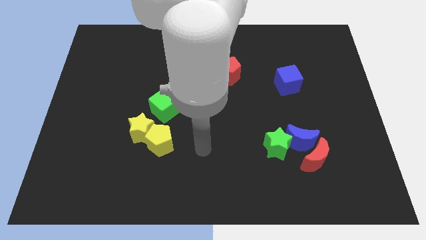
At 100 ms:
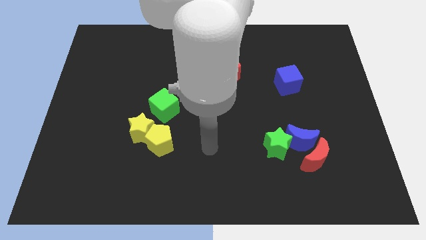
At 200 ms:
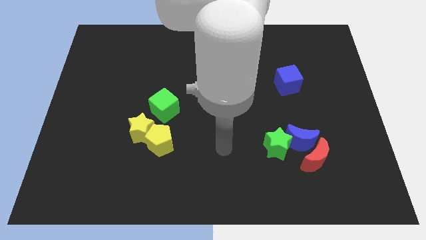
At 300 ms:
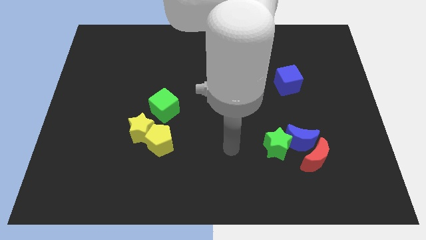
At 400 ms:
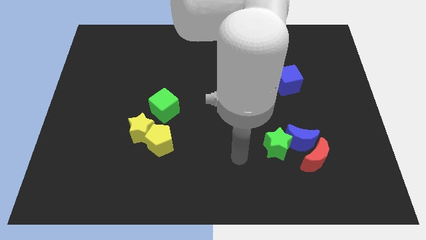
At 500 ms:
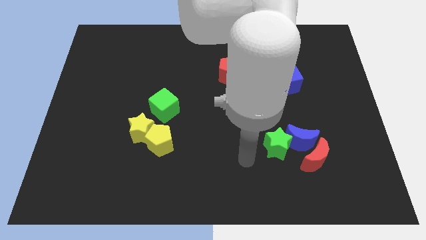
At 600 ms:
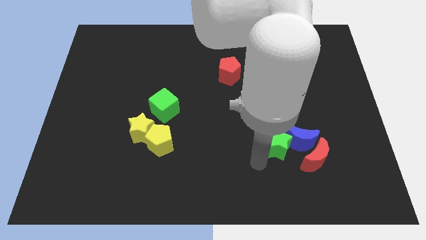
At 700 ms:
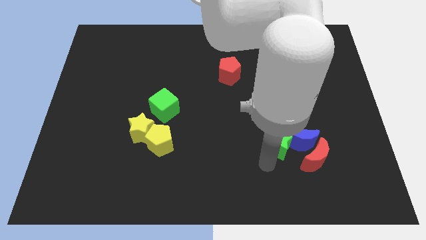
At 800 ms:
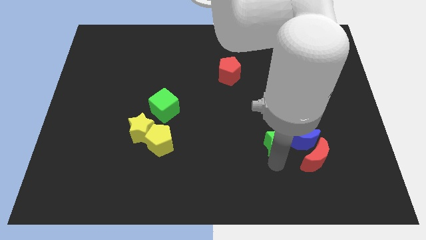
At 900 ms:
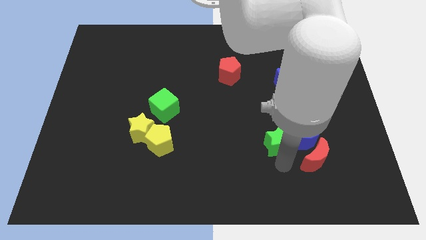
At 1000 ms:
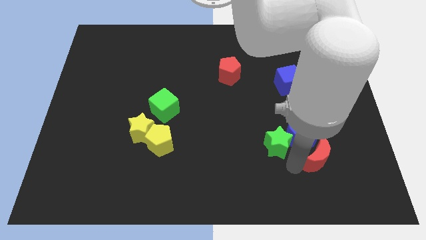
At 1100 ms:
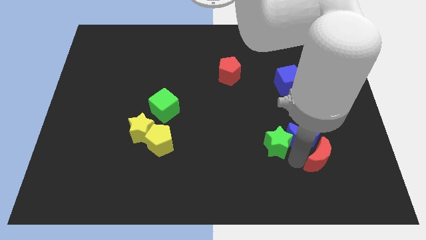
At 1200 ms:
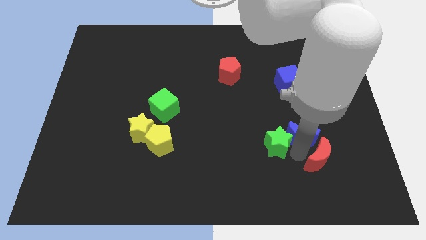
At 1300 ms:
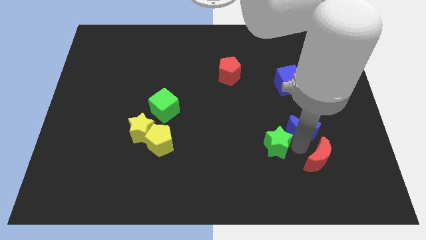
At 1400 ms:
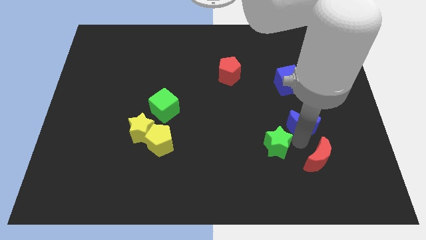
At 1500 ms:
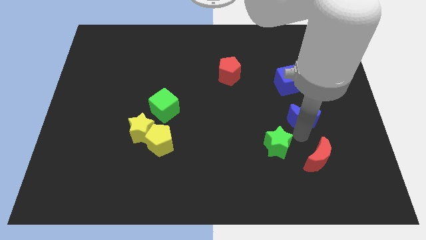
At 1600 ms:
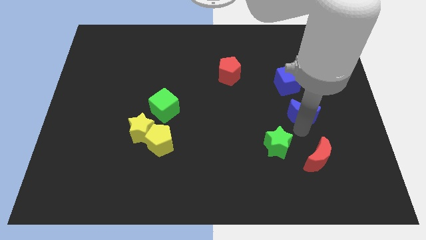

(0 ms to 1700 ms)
move the blue moon away from the red moon and green star

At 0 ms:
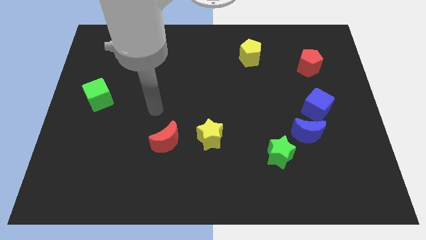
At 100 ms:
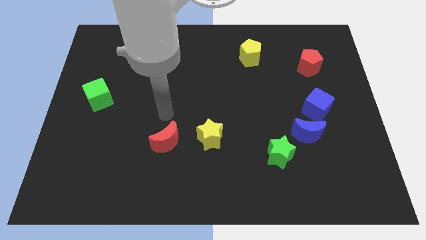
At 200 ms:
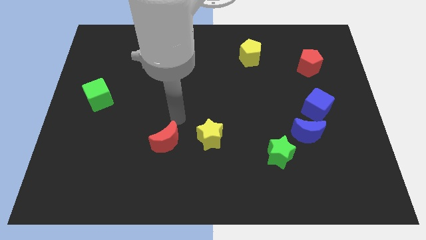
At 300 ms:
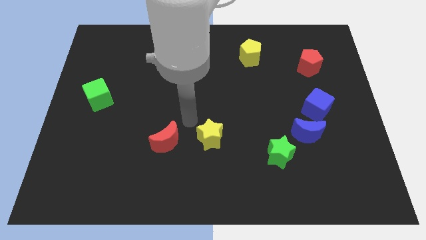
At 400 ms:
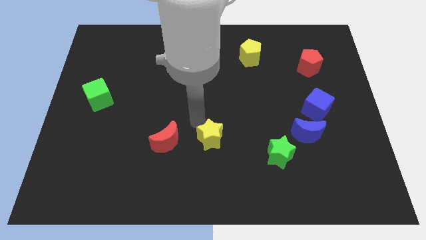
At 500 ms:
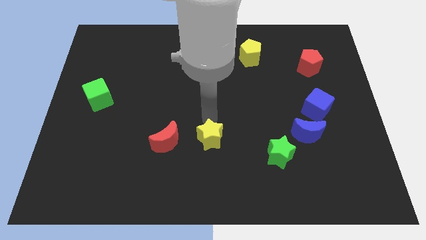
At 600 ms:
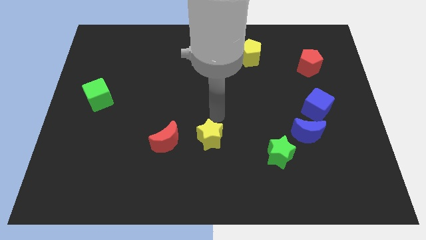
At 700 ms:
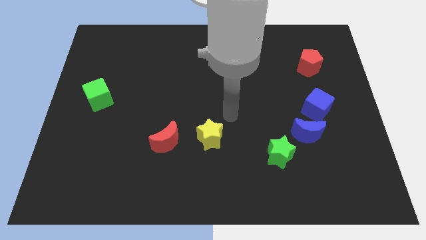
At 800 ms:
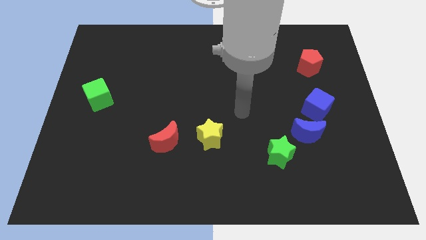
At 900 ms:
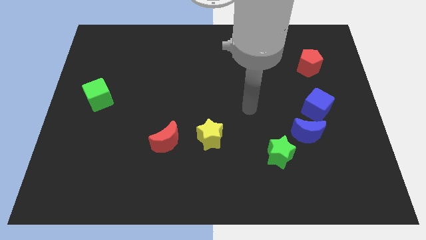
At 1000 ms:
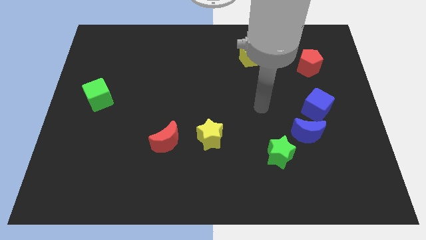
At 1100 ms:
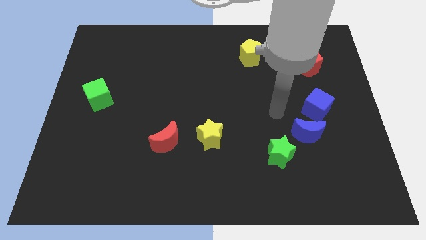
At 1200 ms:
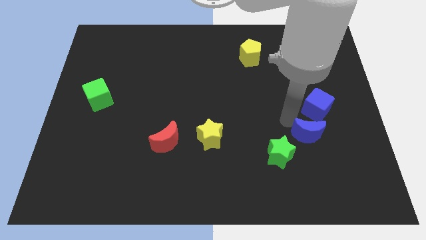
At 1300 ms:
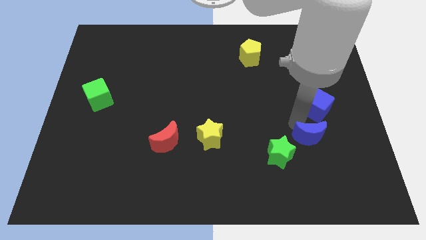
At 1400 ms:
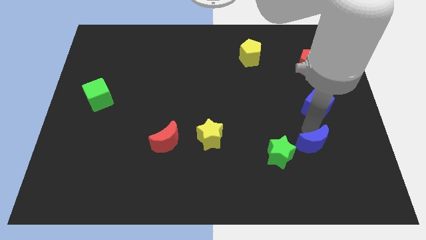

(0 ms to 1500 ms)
move the blue cube away from the blue moon

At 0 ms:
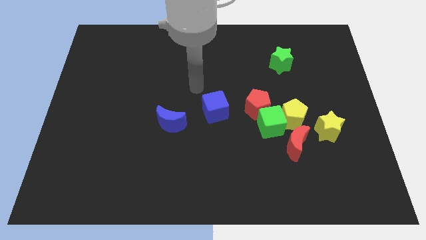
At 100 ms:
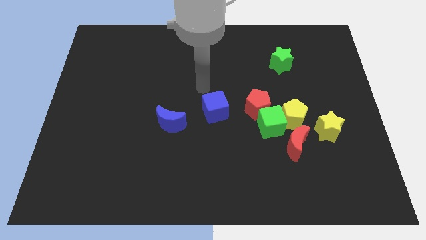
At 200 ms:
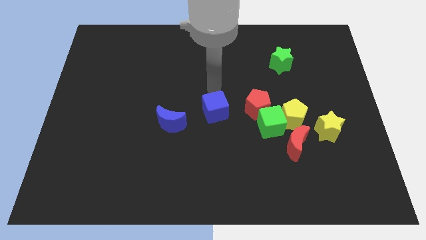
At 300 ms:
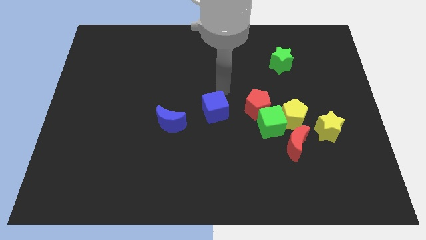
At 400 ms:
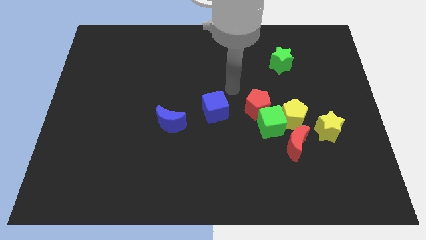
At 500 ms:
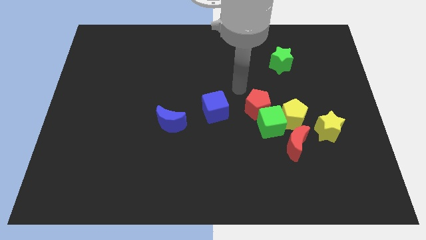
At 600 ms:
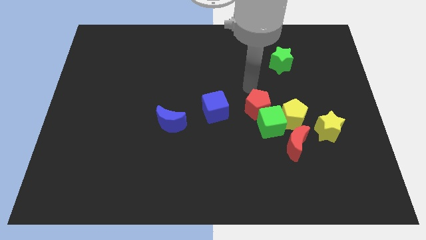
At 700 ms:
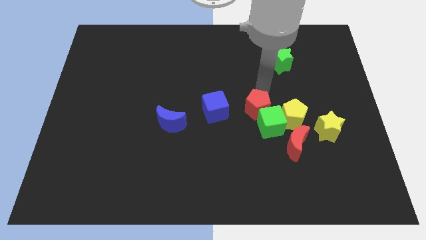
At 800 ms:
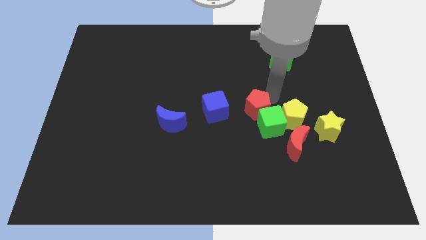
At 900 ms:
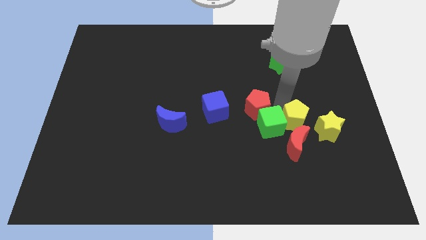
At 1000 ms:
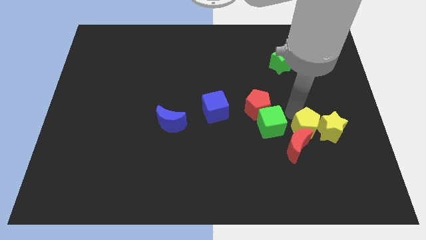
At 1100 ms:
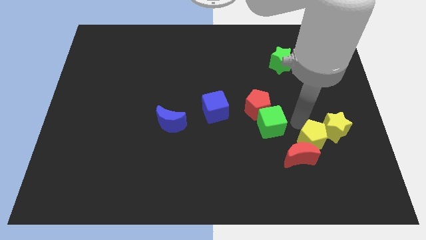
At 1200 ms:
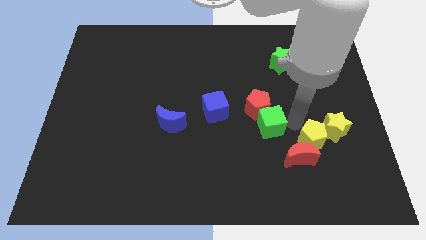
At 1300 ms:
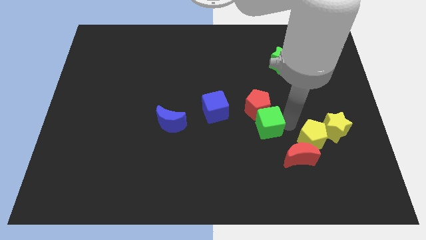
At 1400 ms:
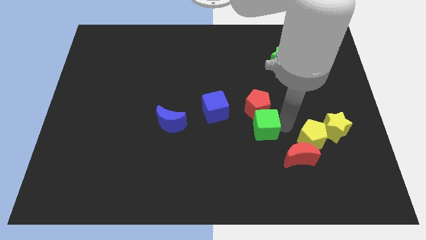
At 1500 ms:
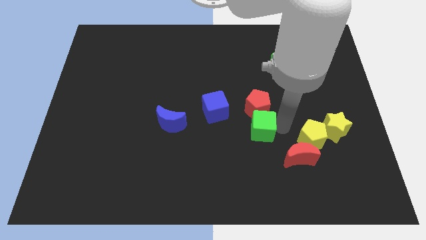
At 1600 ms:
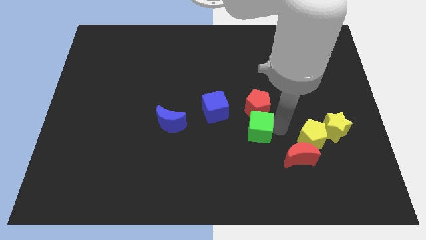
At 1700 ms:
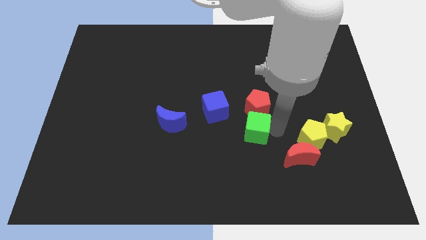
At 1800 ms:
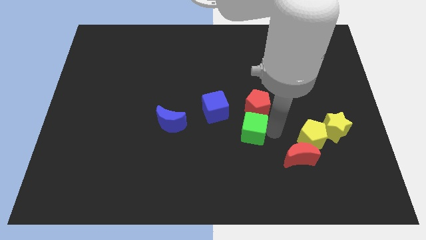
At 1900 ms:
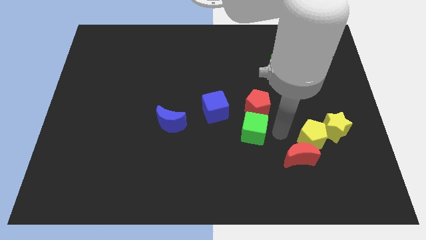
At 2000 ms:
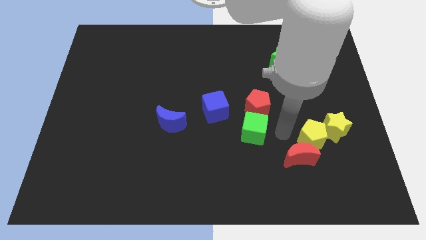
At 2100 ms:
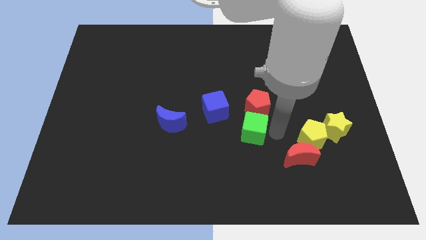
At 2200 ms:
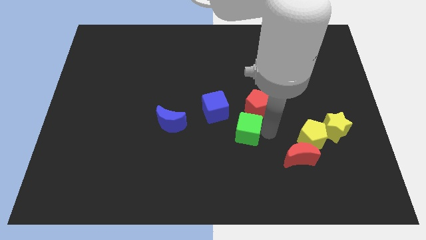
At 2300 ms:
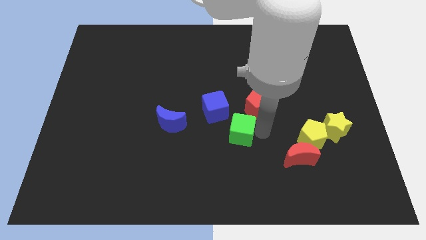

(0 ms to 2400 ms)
separate the green cube from the group

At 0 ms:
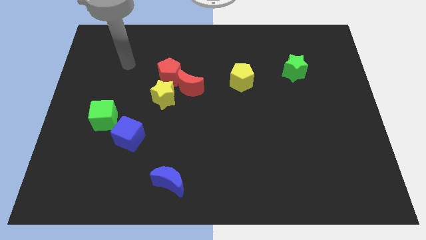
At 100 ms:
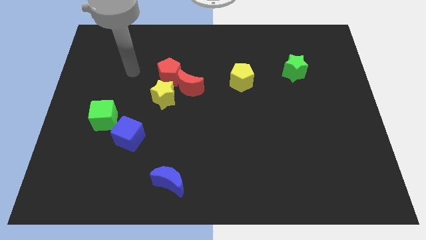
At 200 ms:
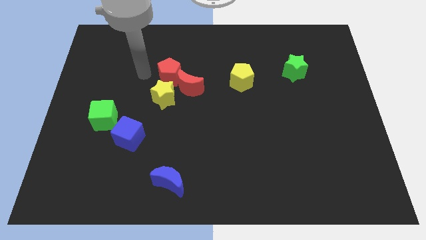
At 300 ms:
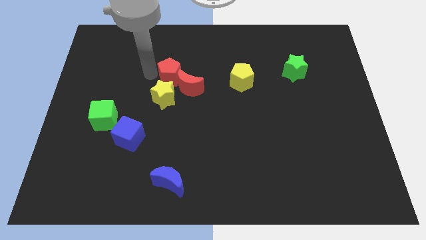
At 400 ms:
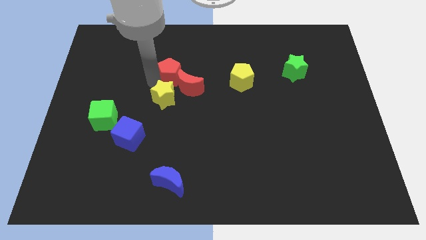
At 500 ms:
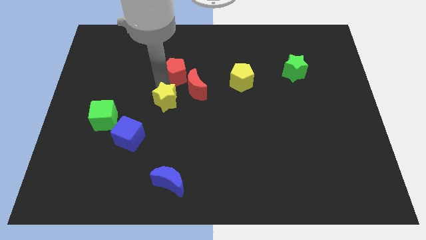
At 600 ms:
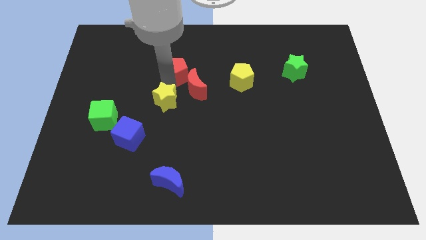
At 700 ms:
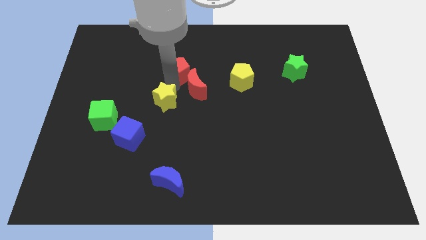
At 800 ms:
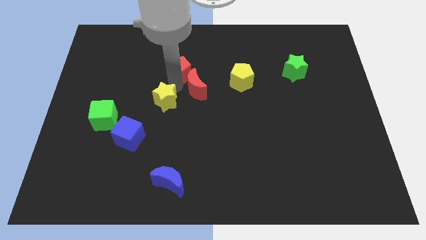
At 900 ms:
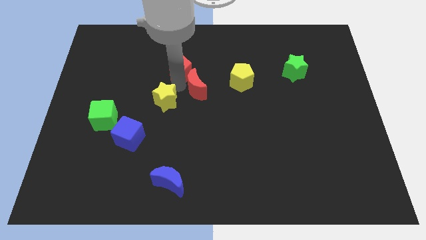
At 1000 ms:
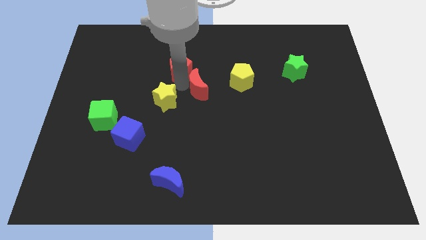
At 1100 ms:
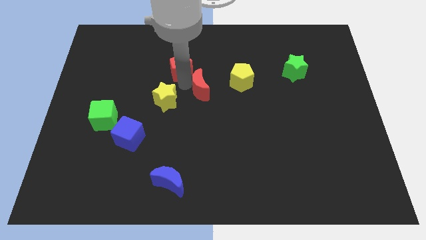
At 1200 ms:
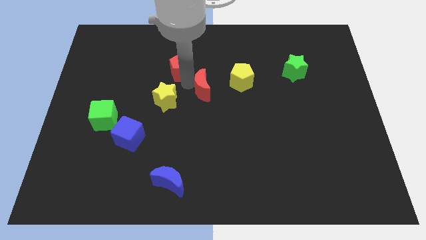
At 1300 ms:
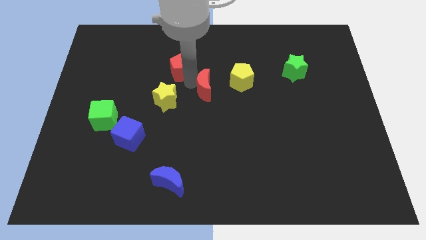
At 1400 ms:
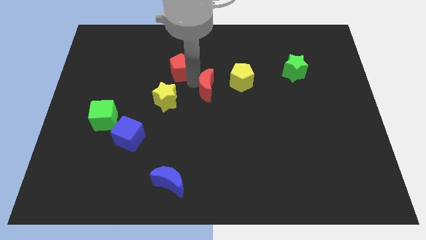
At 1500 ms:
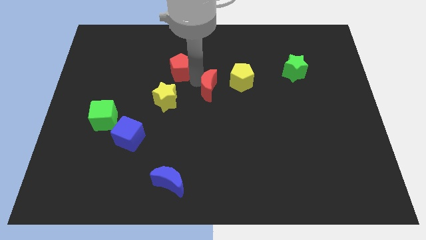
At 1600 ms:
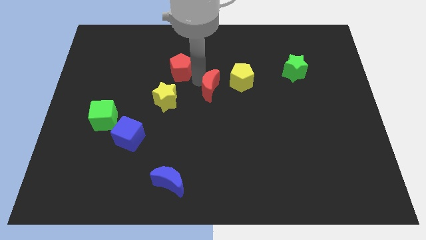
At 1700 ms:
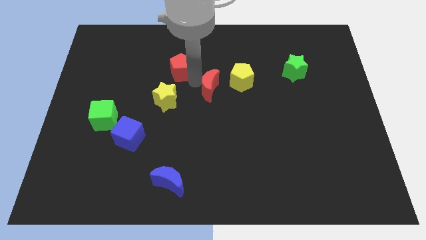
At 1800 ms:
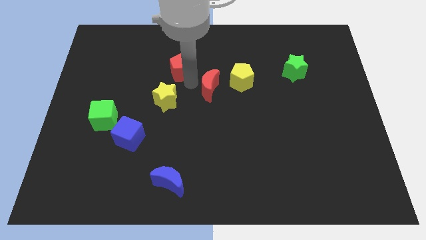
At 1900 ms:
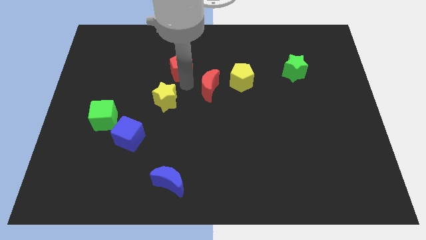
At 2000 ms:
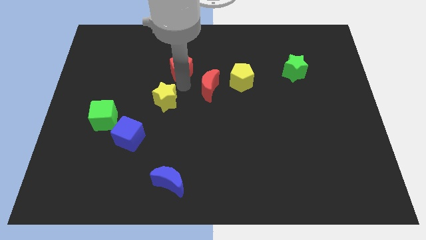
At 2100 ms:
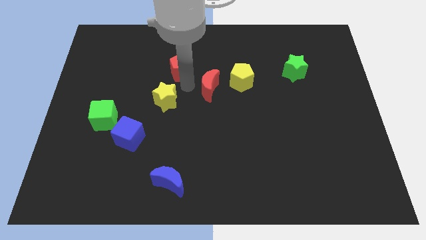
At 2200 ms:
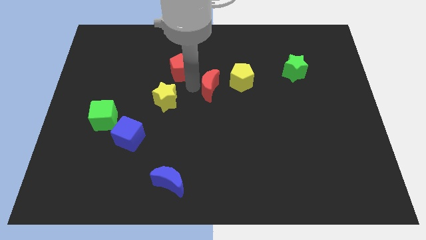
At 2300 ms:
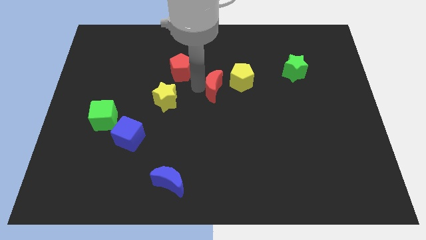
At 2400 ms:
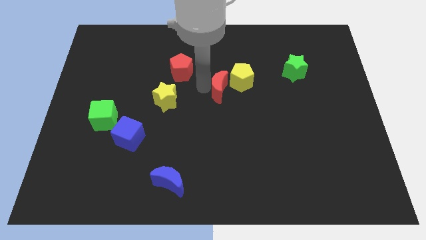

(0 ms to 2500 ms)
pull the red moon apart from the red pentagon and yellow star

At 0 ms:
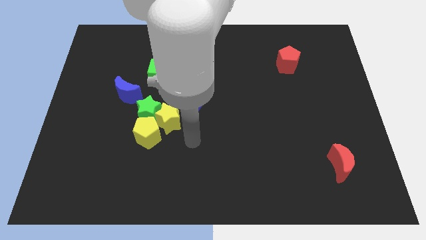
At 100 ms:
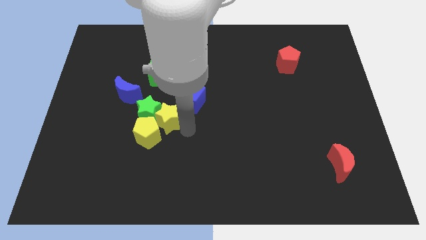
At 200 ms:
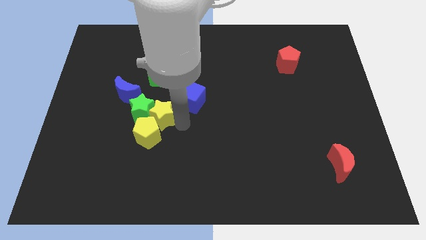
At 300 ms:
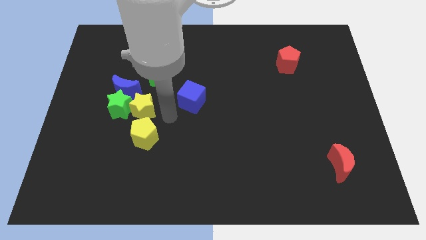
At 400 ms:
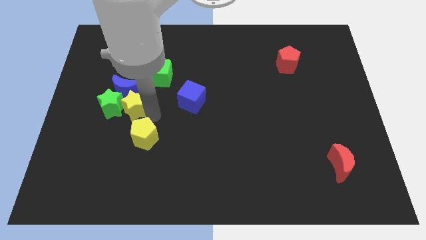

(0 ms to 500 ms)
separate the yellow pentagon from the yellow star and green star

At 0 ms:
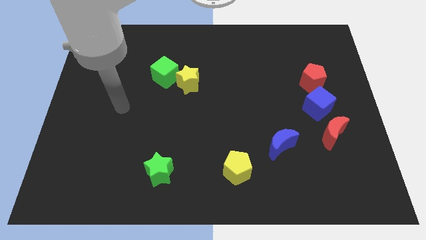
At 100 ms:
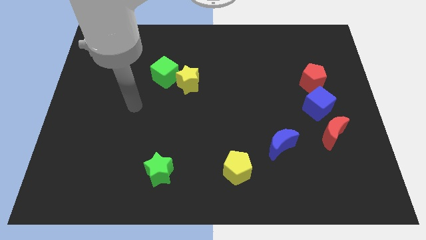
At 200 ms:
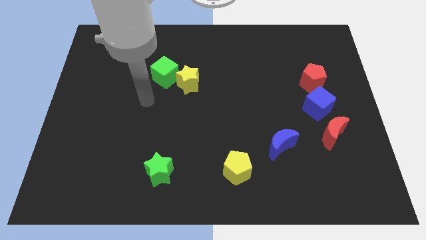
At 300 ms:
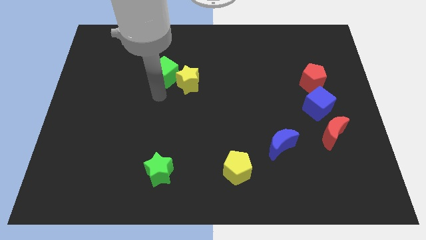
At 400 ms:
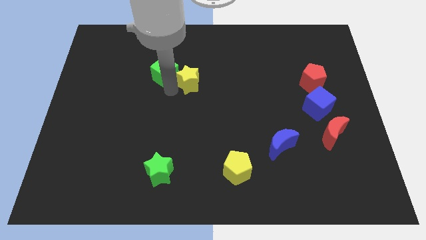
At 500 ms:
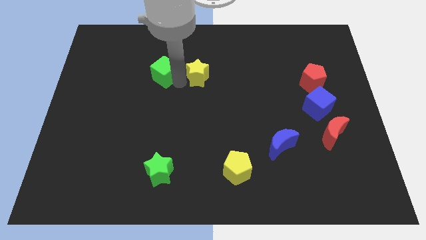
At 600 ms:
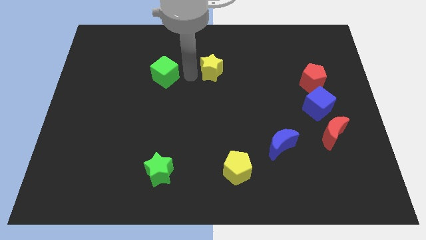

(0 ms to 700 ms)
pull the green cube apart from the yellow star

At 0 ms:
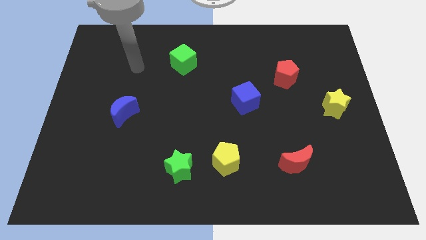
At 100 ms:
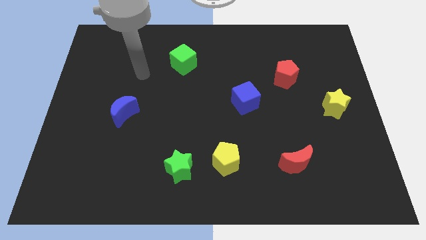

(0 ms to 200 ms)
pull the green star apart from the yellow pentagon

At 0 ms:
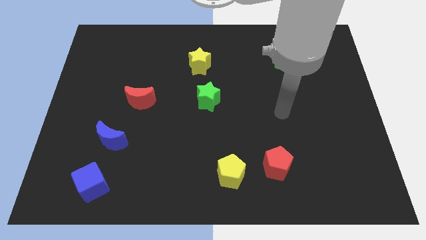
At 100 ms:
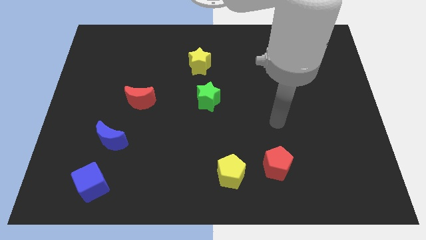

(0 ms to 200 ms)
separate the red pentagon from the yellow pentagon
